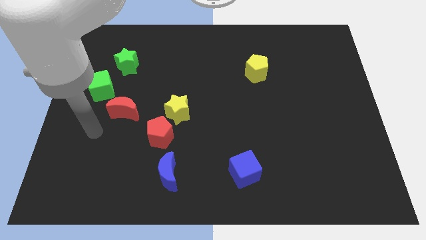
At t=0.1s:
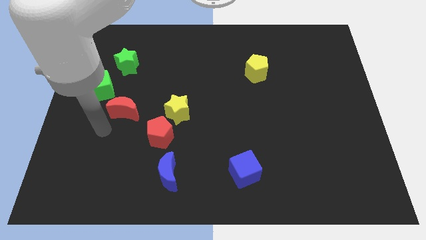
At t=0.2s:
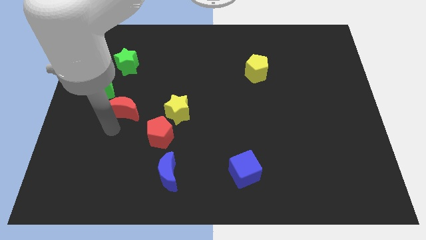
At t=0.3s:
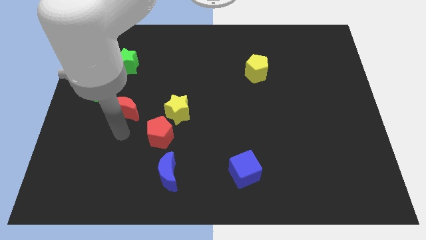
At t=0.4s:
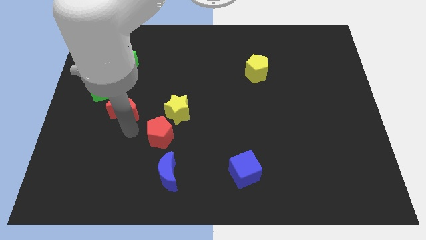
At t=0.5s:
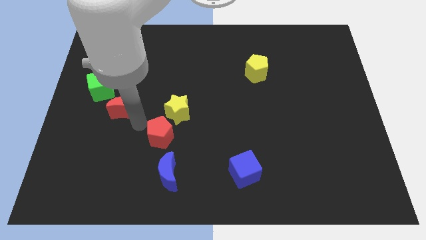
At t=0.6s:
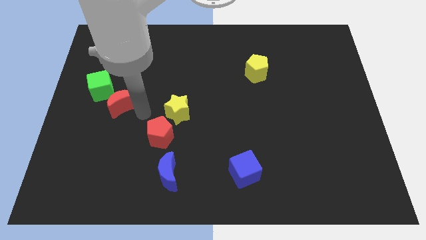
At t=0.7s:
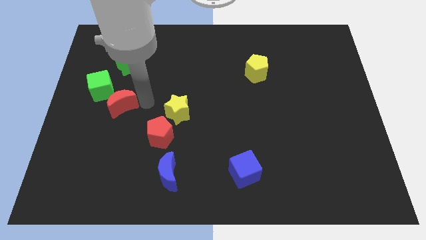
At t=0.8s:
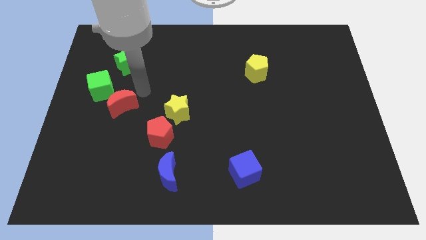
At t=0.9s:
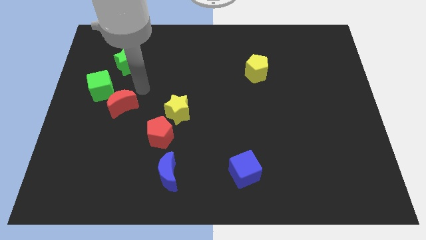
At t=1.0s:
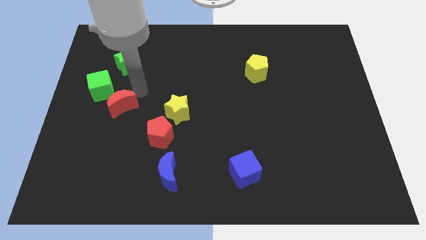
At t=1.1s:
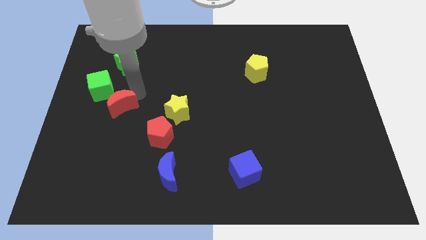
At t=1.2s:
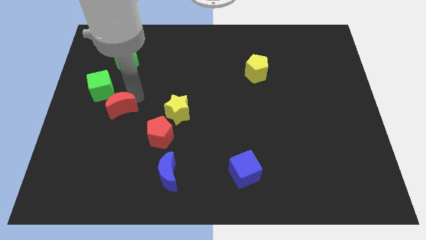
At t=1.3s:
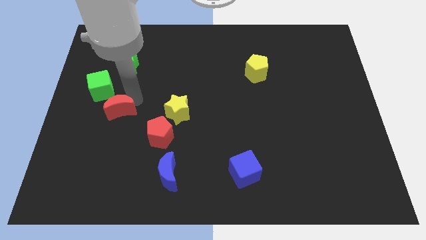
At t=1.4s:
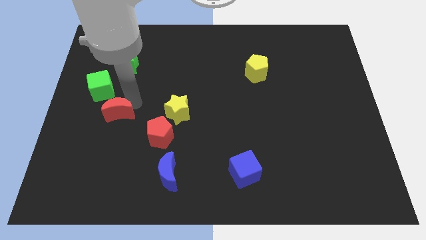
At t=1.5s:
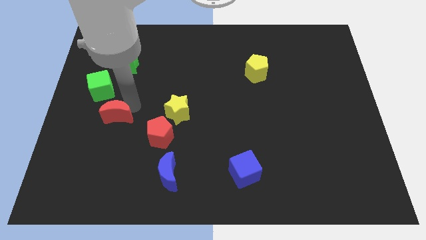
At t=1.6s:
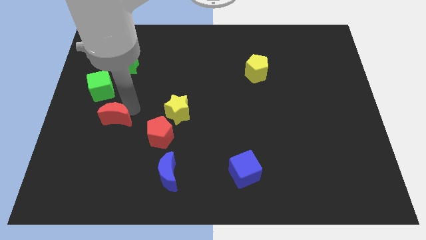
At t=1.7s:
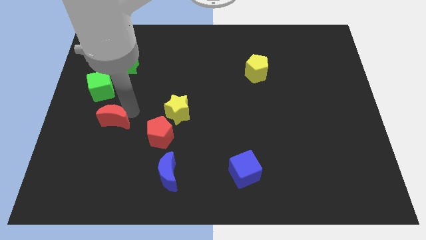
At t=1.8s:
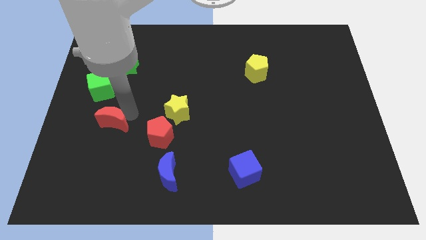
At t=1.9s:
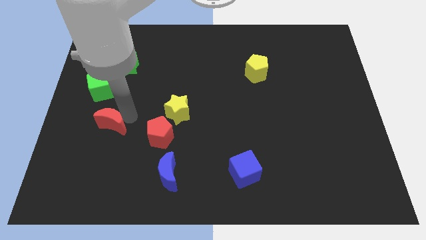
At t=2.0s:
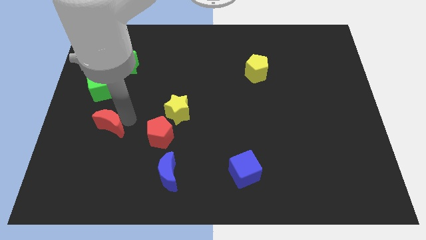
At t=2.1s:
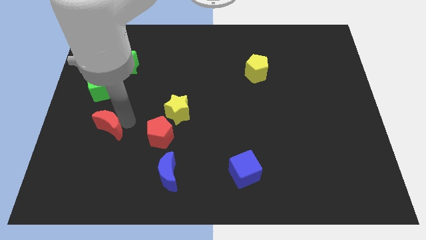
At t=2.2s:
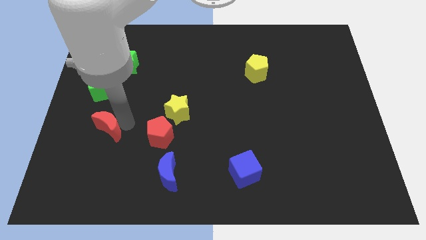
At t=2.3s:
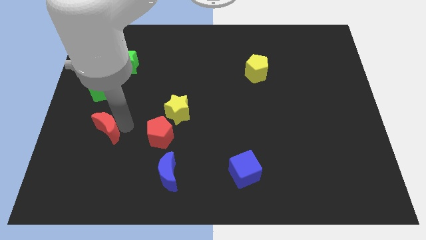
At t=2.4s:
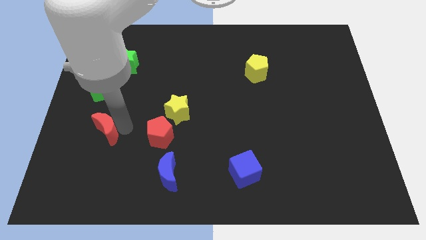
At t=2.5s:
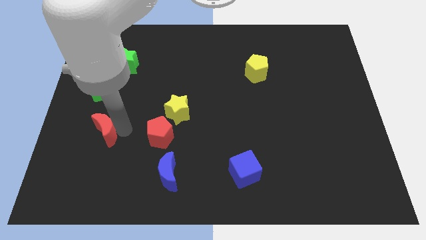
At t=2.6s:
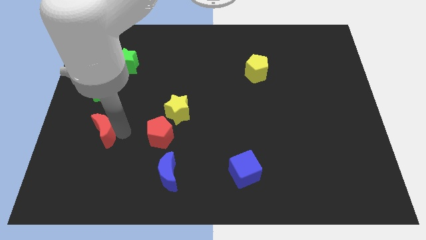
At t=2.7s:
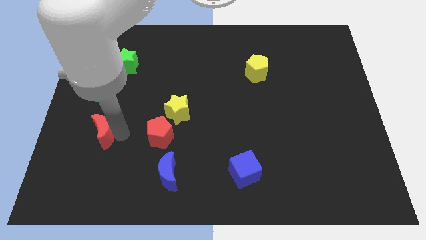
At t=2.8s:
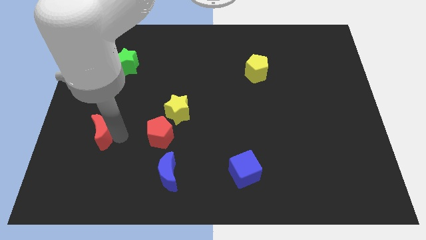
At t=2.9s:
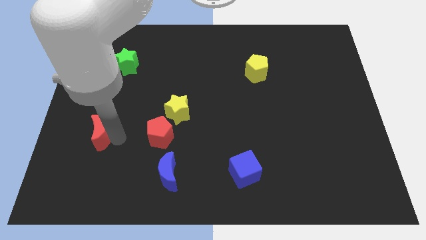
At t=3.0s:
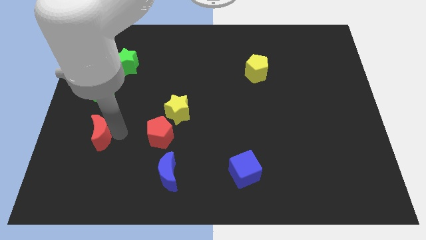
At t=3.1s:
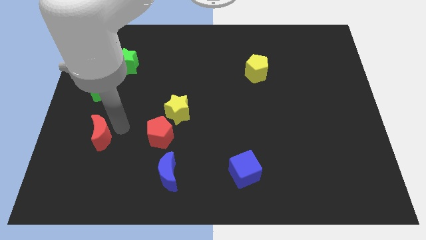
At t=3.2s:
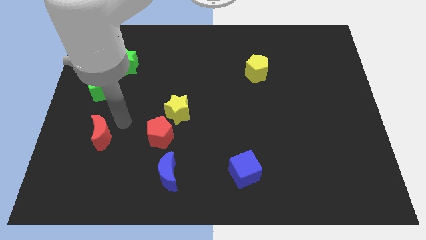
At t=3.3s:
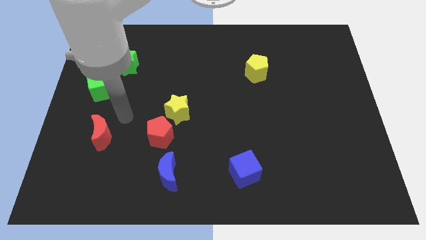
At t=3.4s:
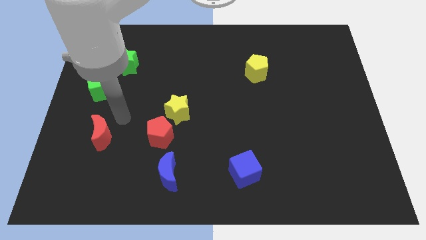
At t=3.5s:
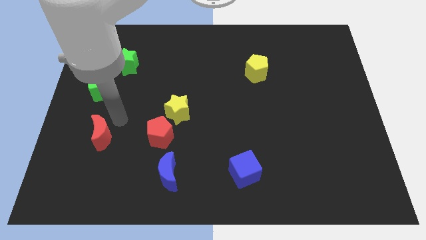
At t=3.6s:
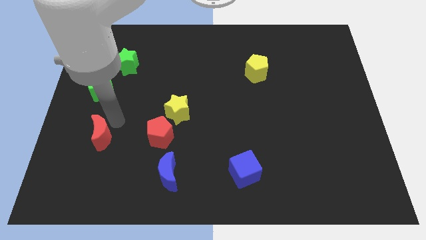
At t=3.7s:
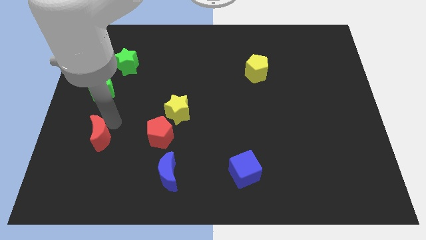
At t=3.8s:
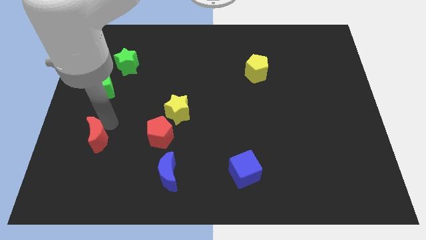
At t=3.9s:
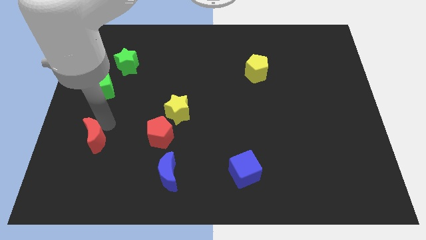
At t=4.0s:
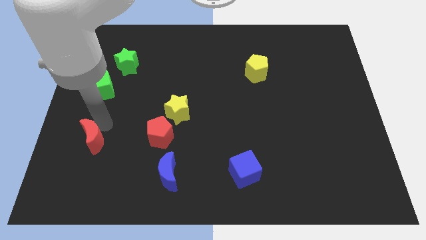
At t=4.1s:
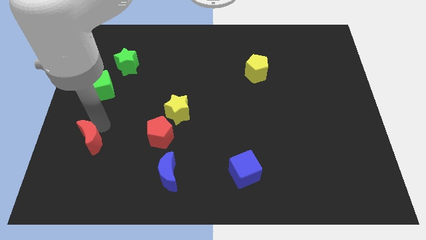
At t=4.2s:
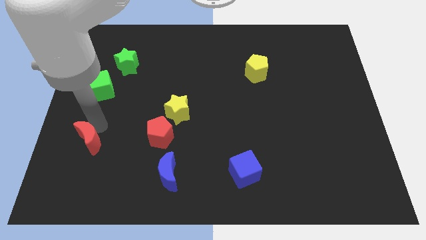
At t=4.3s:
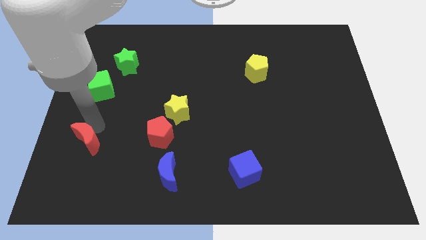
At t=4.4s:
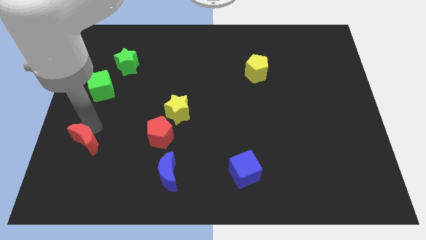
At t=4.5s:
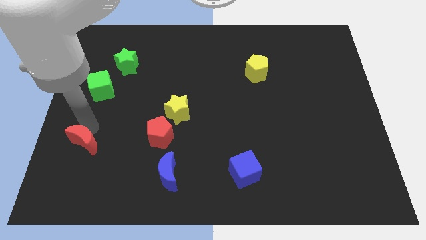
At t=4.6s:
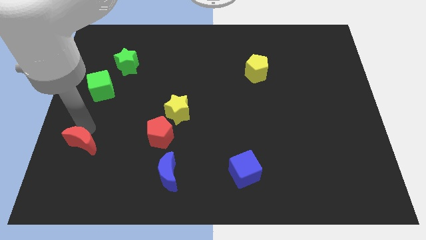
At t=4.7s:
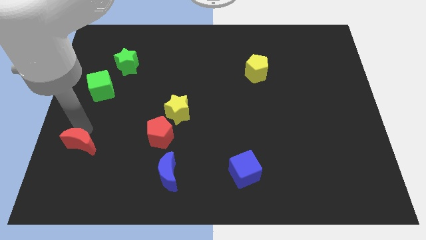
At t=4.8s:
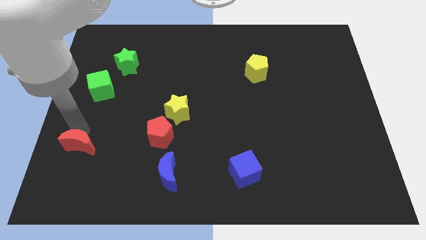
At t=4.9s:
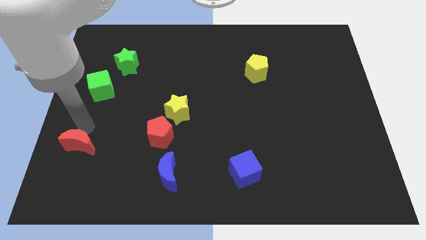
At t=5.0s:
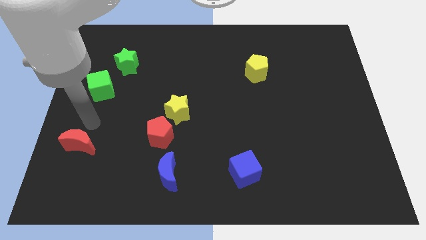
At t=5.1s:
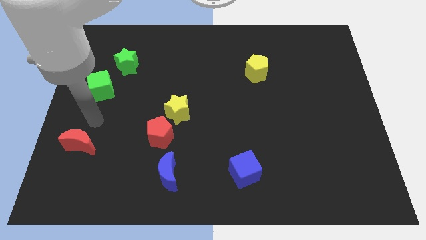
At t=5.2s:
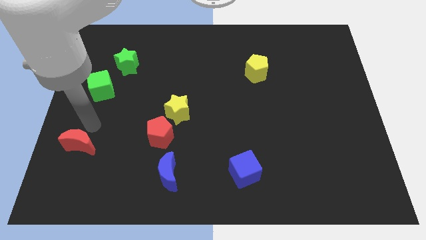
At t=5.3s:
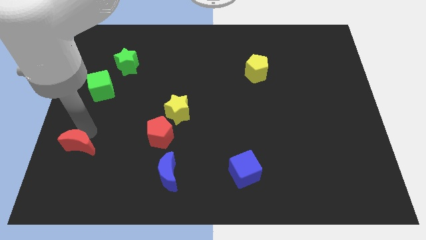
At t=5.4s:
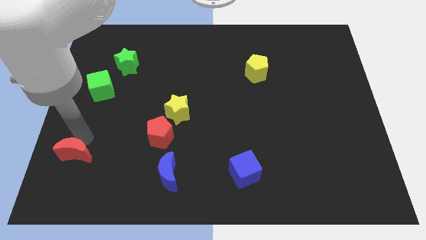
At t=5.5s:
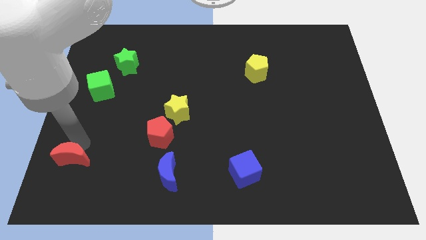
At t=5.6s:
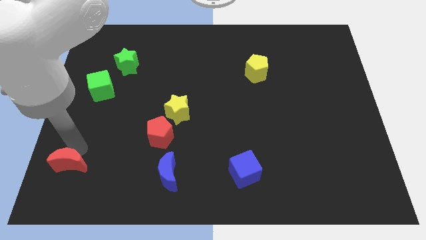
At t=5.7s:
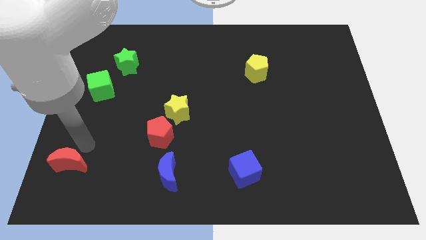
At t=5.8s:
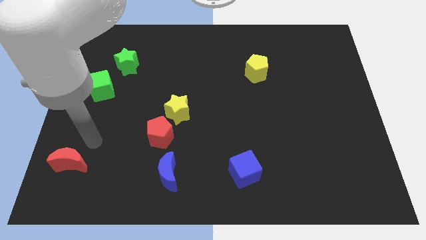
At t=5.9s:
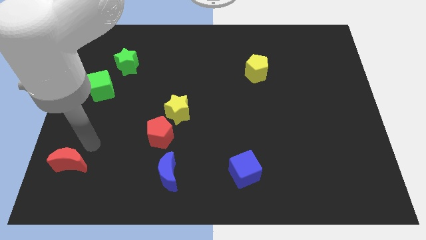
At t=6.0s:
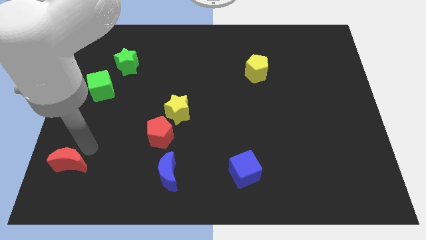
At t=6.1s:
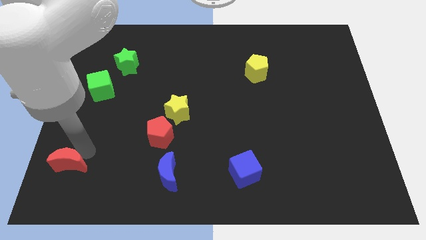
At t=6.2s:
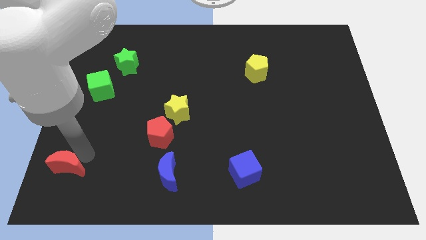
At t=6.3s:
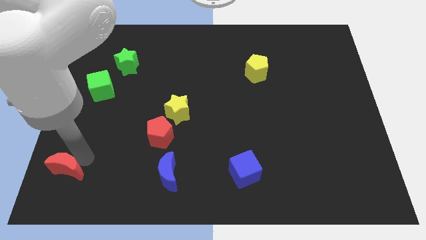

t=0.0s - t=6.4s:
put the red moon to the bottom left

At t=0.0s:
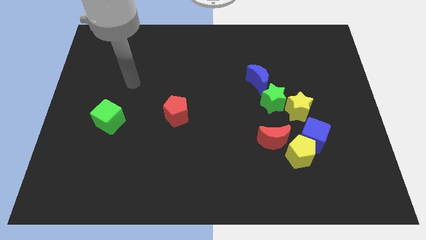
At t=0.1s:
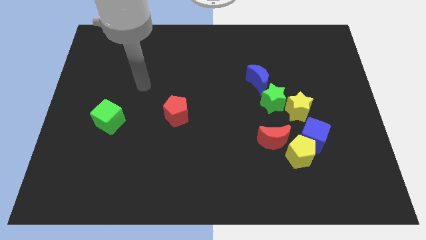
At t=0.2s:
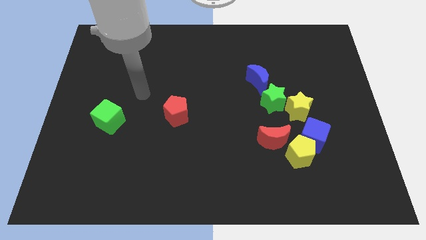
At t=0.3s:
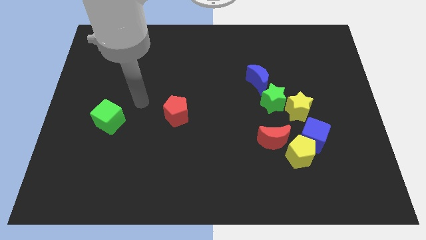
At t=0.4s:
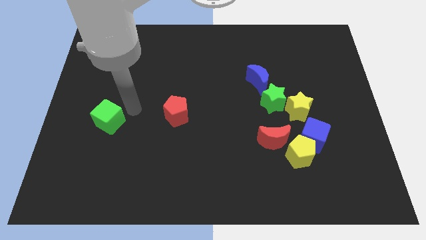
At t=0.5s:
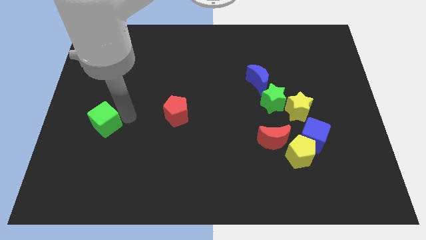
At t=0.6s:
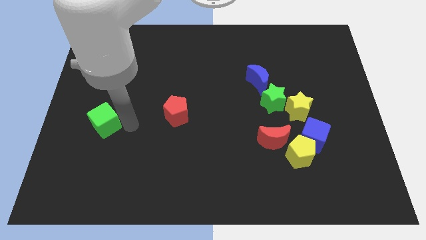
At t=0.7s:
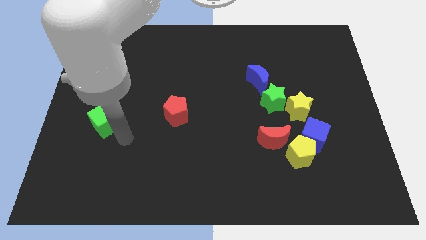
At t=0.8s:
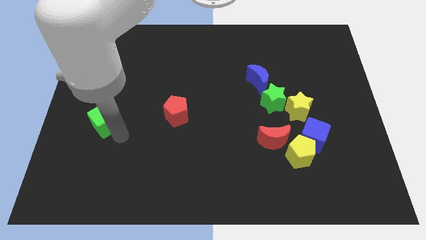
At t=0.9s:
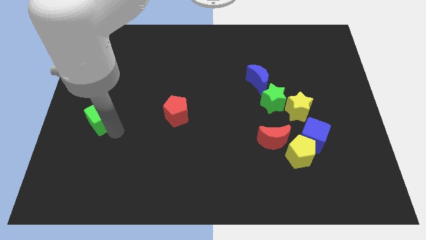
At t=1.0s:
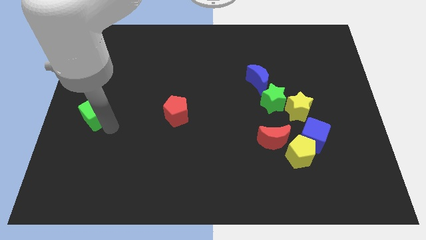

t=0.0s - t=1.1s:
push the green cube to the left side of the board

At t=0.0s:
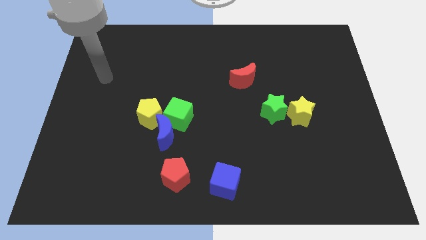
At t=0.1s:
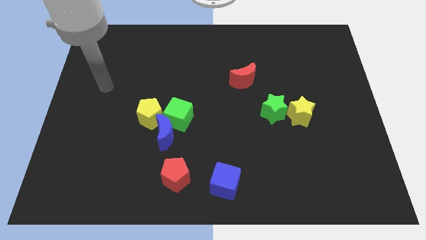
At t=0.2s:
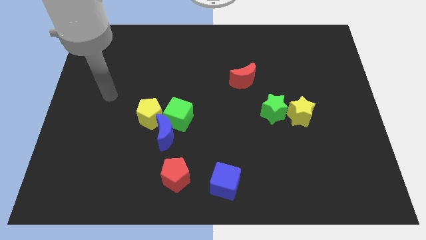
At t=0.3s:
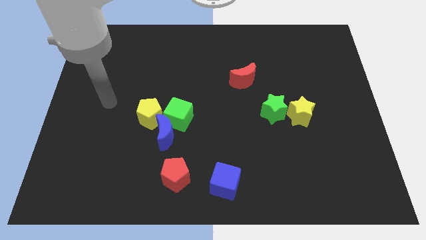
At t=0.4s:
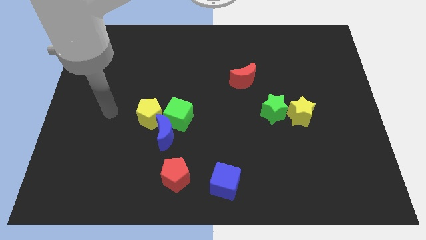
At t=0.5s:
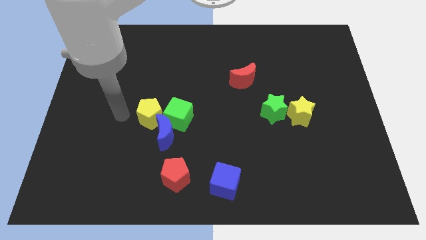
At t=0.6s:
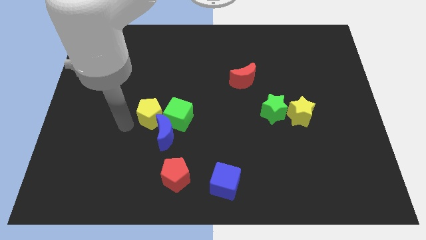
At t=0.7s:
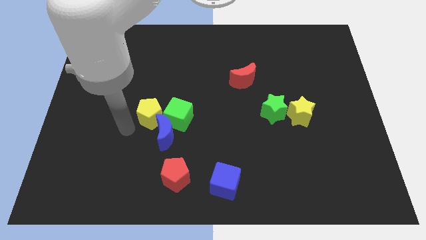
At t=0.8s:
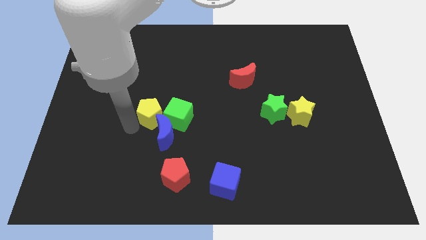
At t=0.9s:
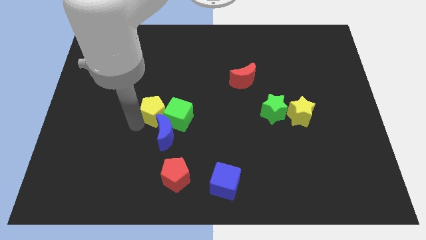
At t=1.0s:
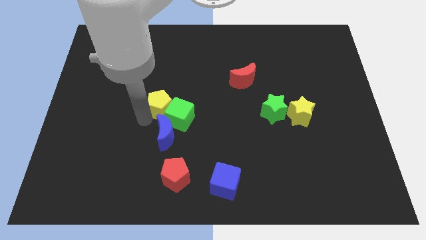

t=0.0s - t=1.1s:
put the yellow pentagon to the center of the board
